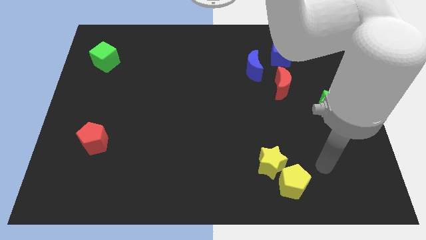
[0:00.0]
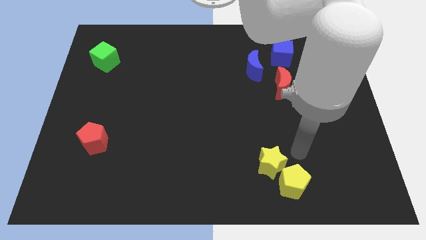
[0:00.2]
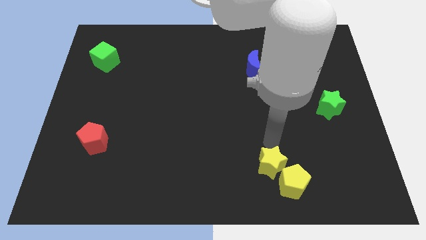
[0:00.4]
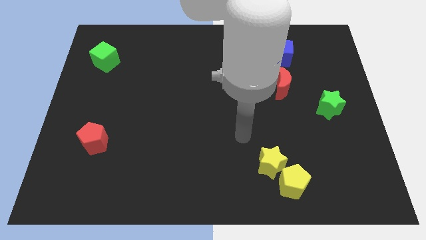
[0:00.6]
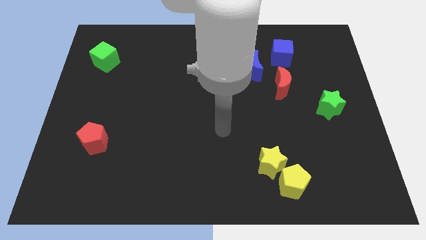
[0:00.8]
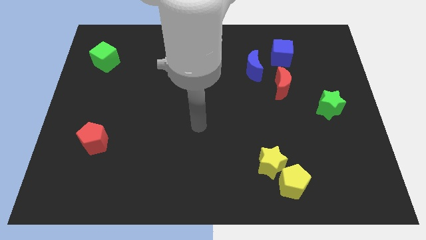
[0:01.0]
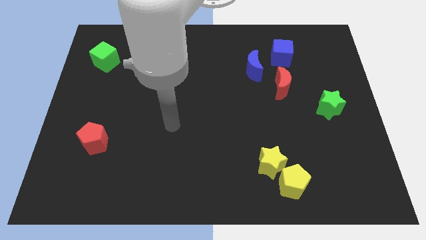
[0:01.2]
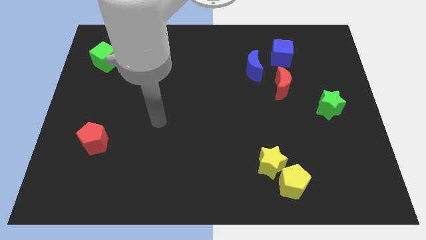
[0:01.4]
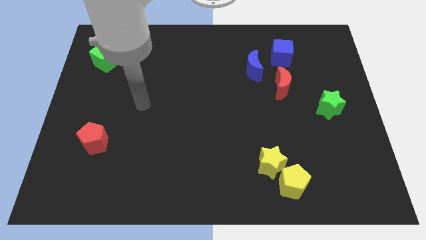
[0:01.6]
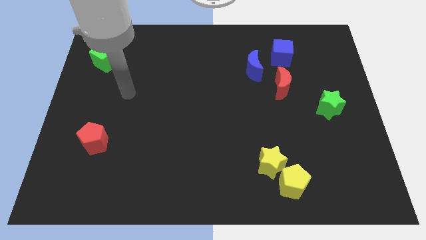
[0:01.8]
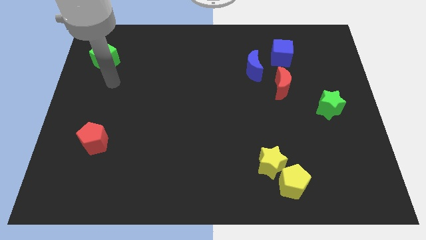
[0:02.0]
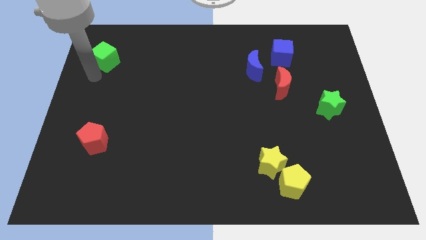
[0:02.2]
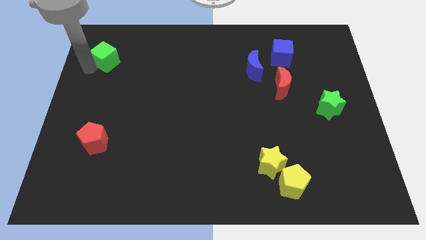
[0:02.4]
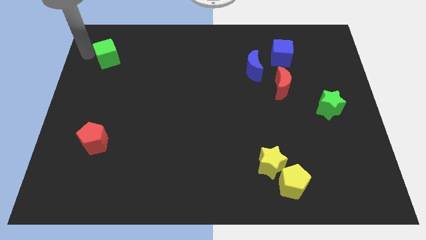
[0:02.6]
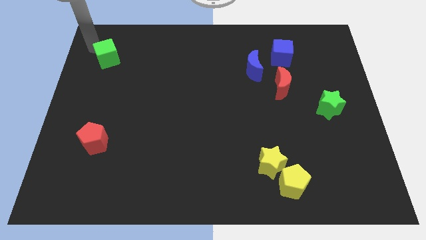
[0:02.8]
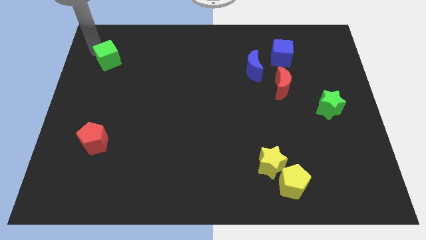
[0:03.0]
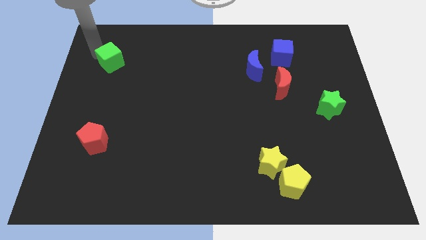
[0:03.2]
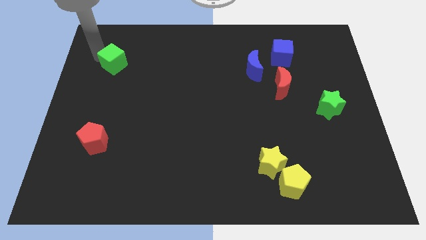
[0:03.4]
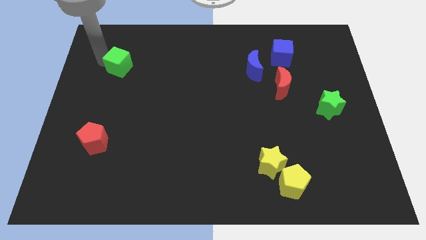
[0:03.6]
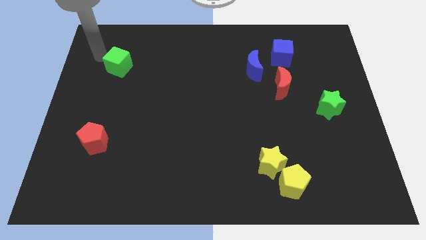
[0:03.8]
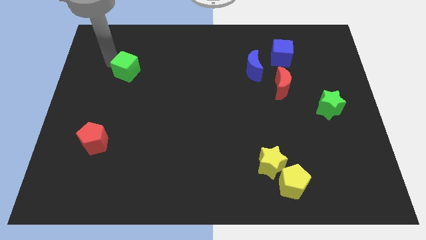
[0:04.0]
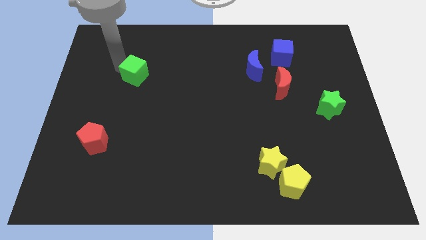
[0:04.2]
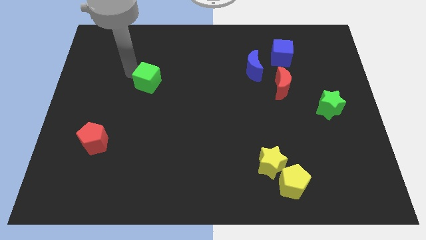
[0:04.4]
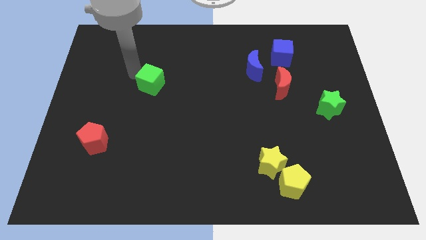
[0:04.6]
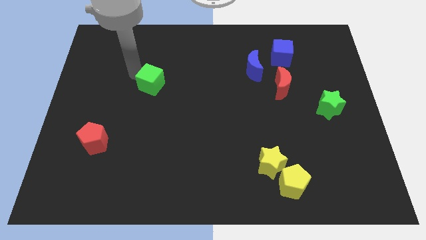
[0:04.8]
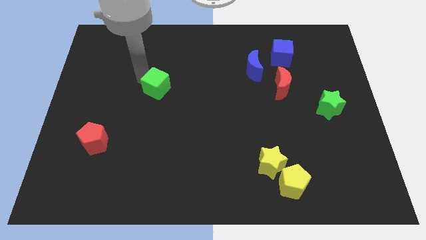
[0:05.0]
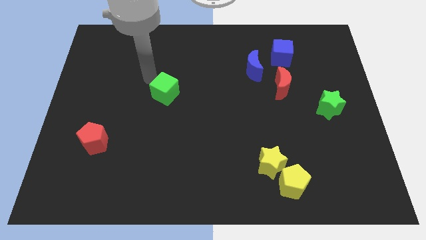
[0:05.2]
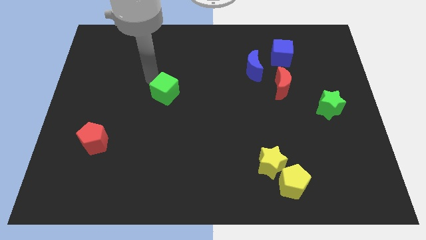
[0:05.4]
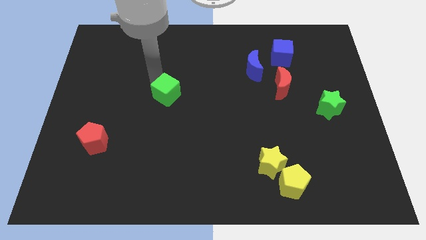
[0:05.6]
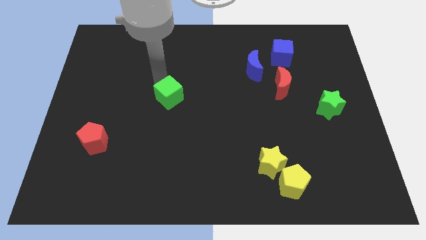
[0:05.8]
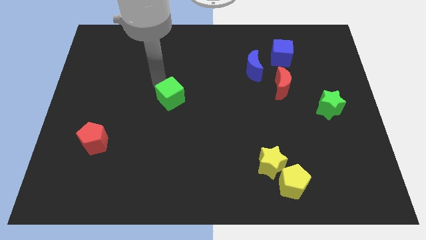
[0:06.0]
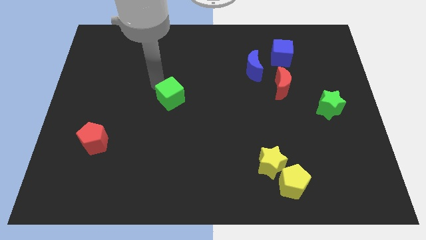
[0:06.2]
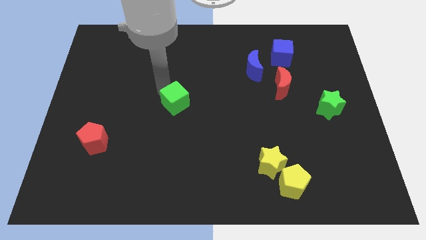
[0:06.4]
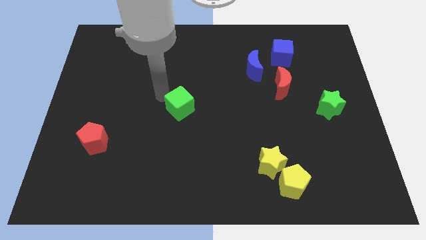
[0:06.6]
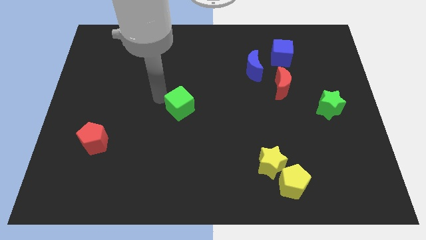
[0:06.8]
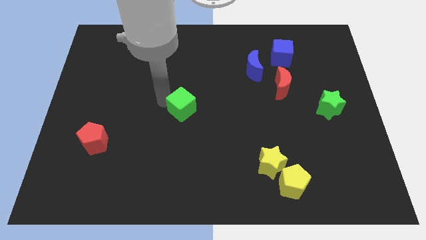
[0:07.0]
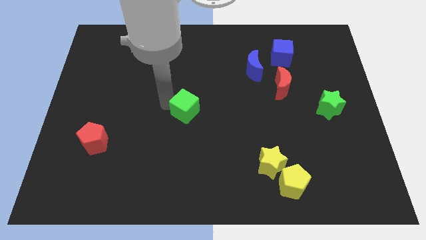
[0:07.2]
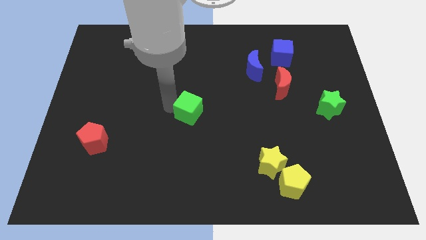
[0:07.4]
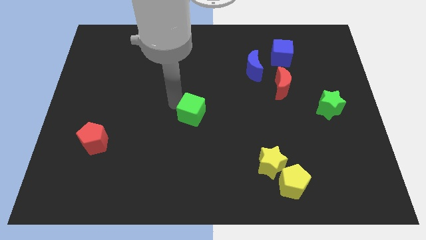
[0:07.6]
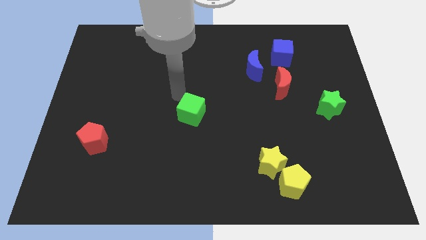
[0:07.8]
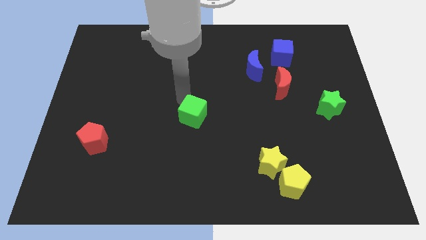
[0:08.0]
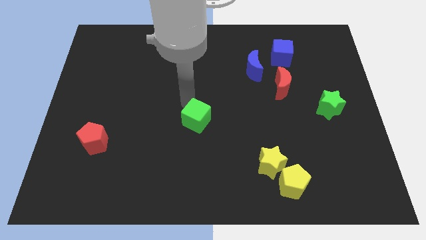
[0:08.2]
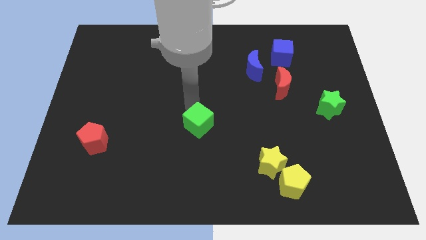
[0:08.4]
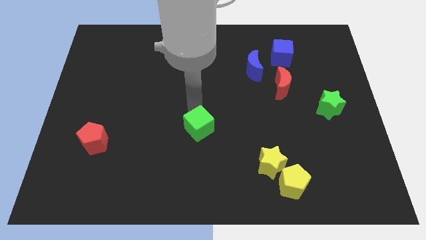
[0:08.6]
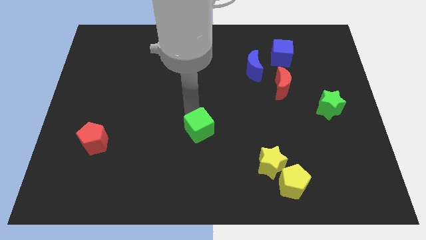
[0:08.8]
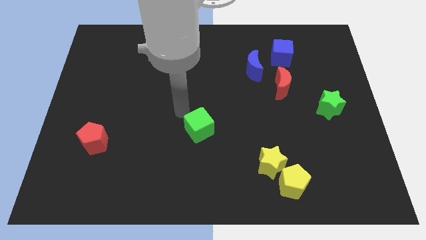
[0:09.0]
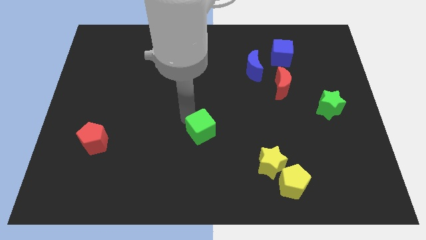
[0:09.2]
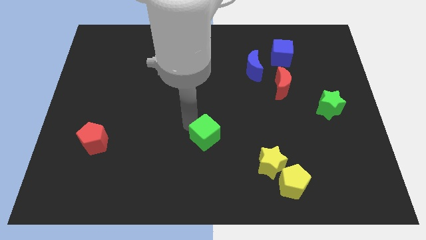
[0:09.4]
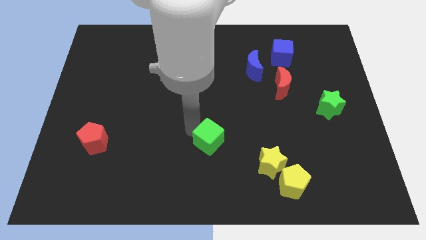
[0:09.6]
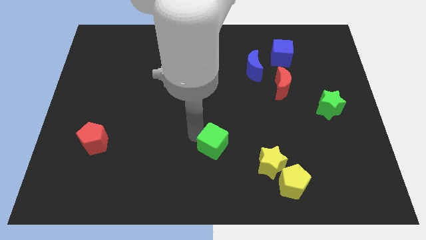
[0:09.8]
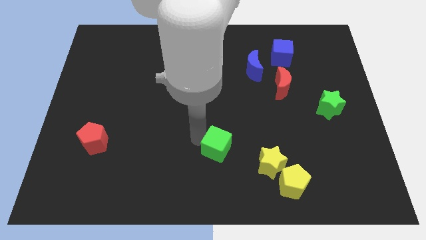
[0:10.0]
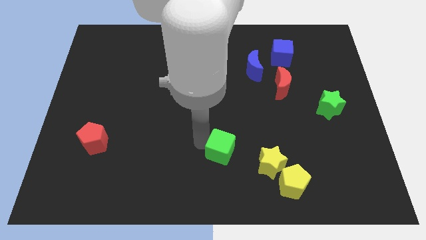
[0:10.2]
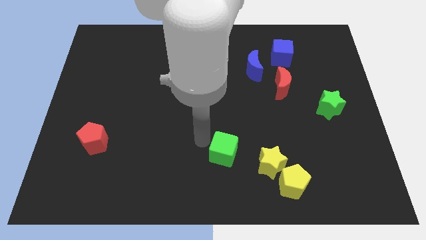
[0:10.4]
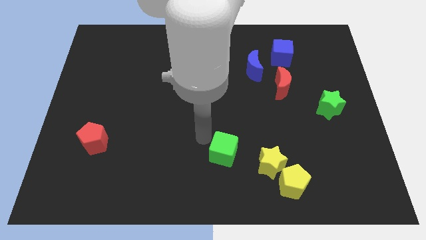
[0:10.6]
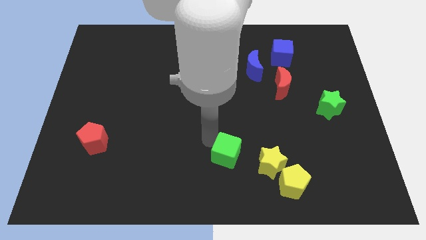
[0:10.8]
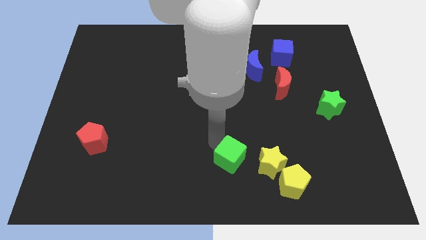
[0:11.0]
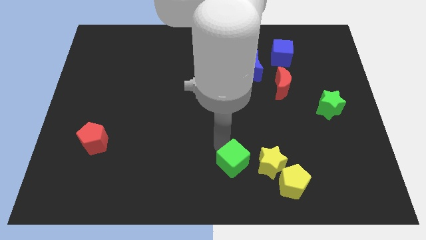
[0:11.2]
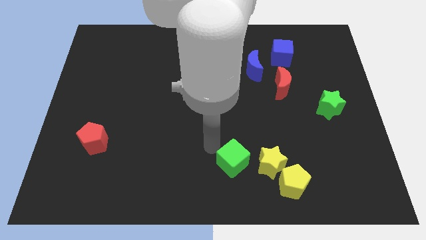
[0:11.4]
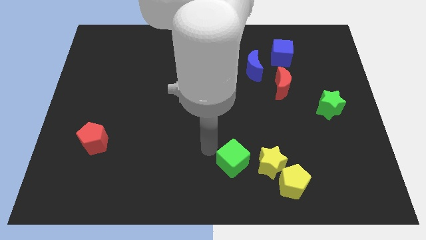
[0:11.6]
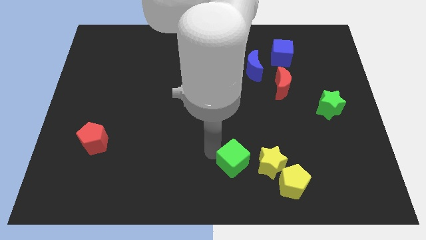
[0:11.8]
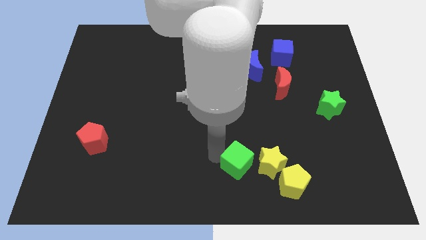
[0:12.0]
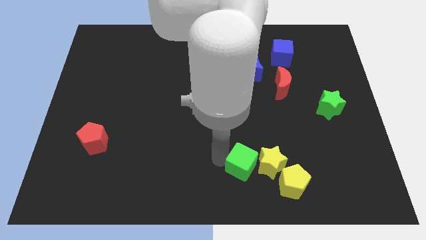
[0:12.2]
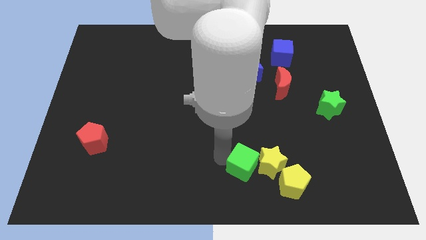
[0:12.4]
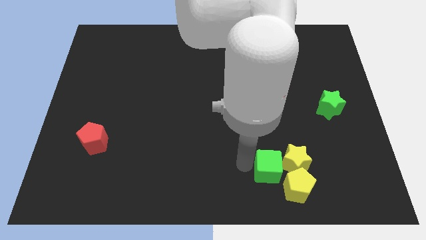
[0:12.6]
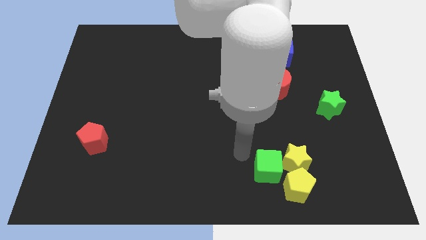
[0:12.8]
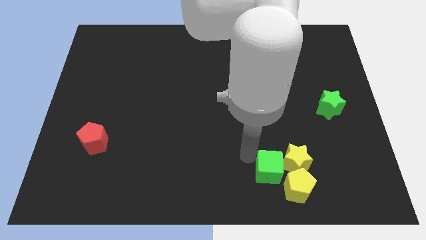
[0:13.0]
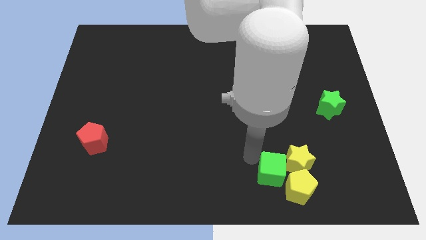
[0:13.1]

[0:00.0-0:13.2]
move the green cube to the yellow pentagon
